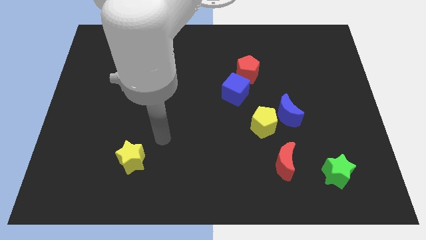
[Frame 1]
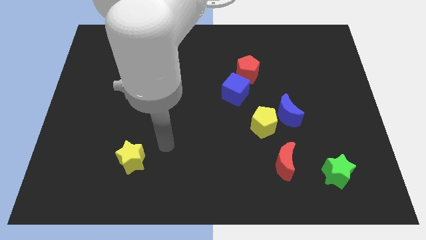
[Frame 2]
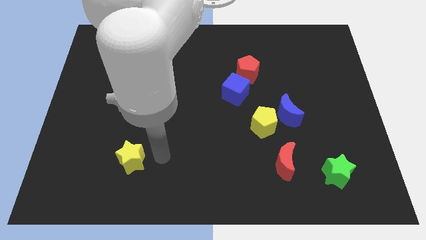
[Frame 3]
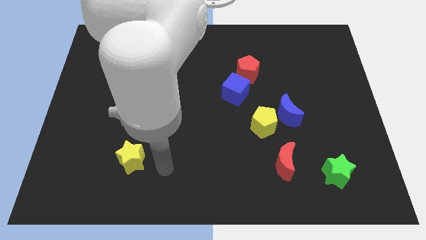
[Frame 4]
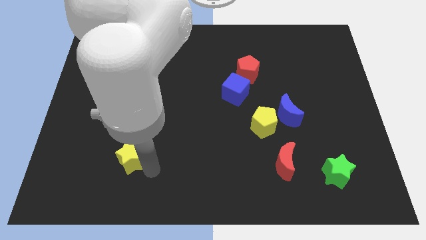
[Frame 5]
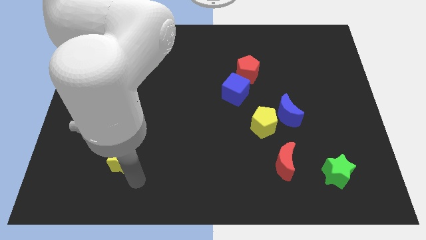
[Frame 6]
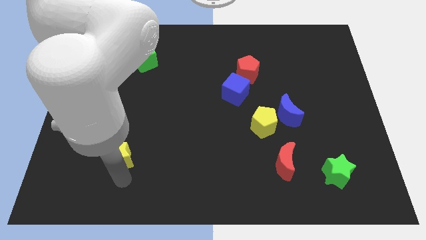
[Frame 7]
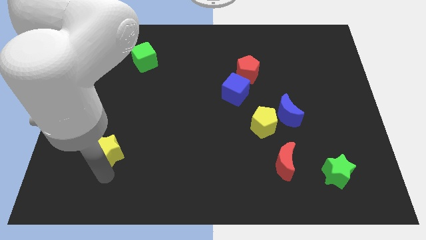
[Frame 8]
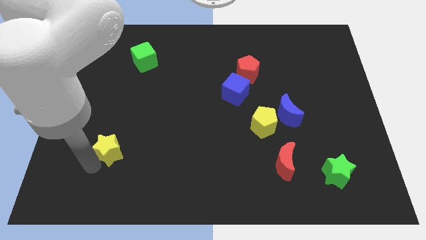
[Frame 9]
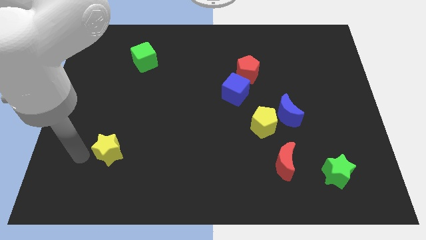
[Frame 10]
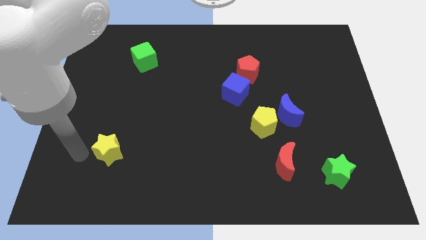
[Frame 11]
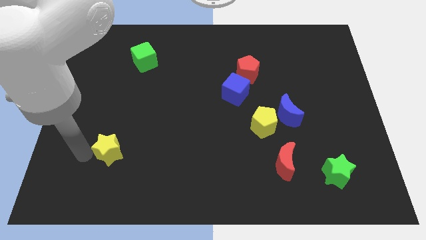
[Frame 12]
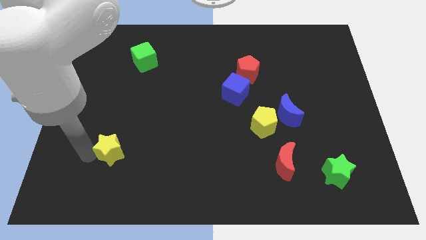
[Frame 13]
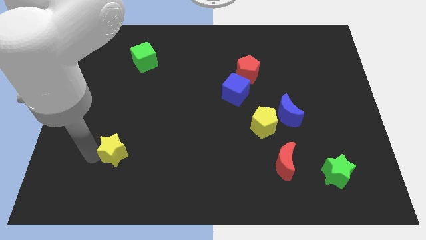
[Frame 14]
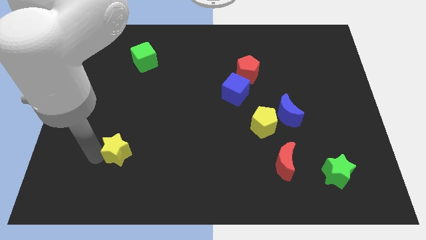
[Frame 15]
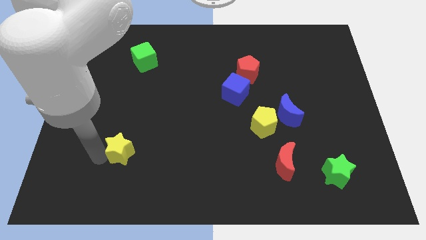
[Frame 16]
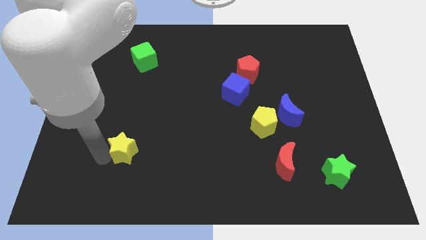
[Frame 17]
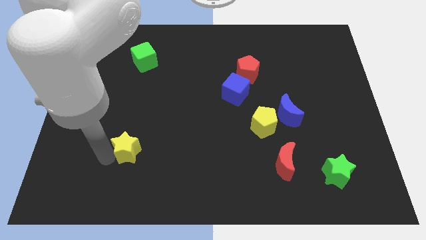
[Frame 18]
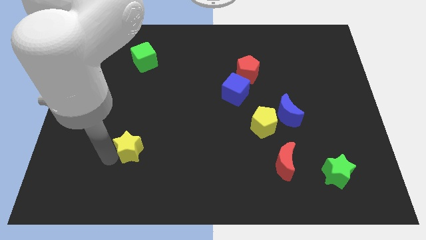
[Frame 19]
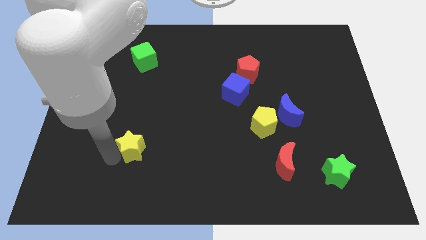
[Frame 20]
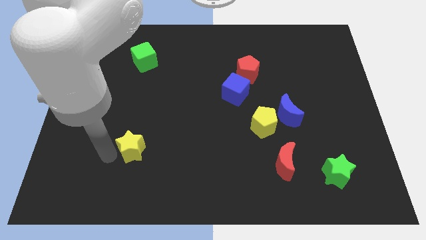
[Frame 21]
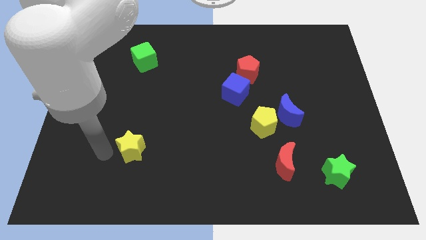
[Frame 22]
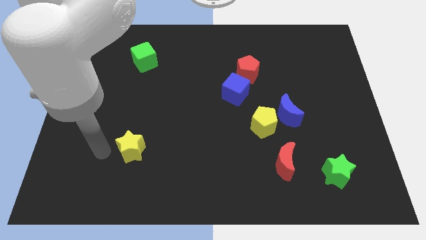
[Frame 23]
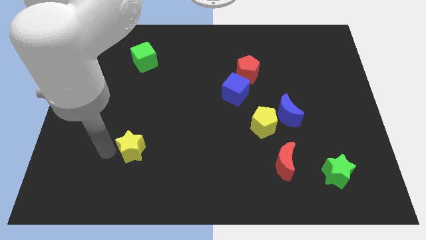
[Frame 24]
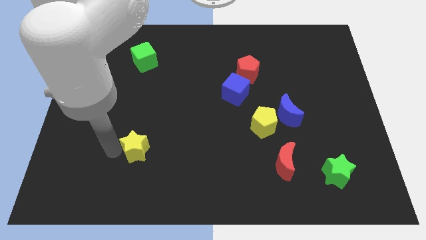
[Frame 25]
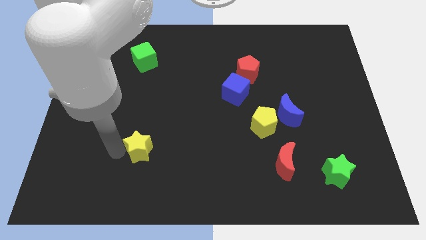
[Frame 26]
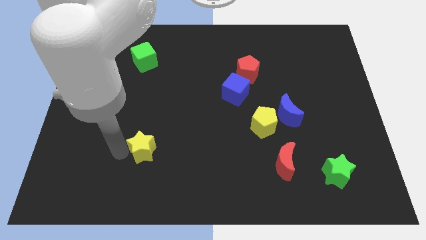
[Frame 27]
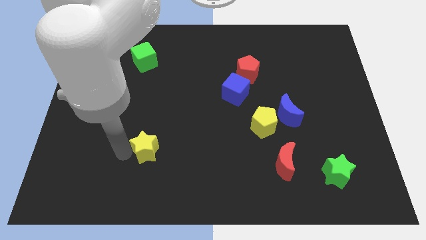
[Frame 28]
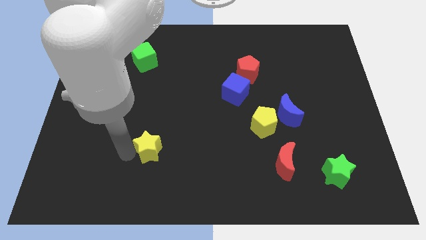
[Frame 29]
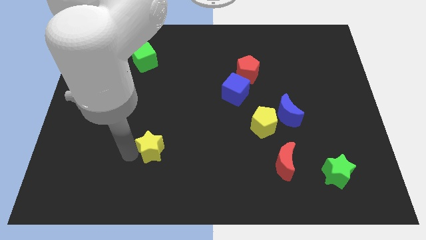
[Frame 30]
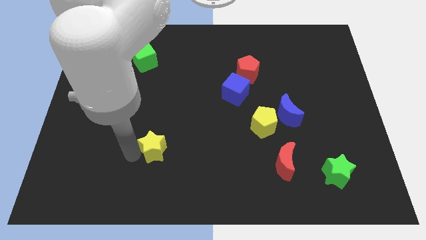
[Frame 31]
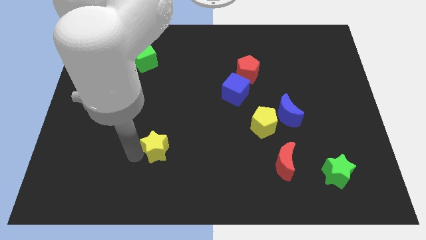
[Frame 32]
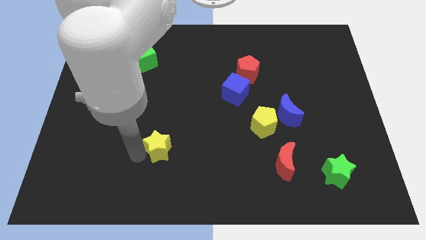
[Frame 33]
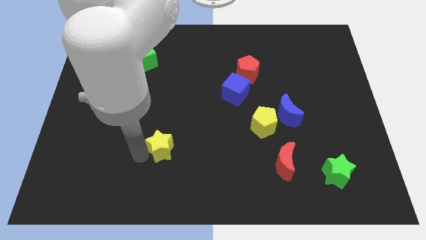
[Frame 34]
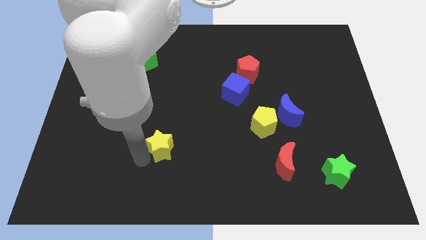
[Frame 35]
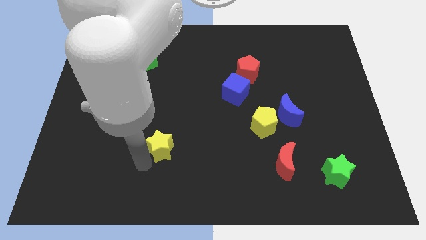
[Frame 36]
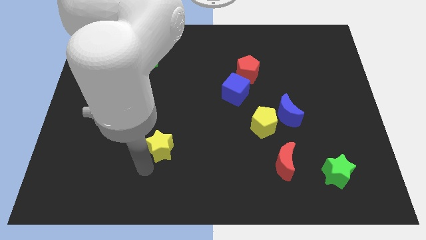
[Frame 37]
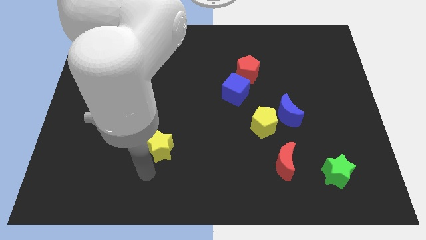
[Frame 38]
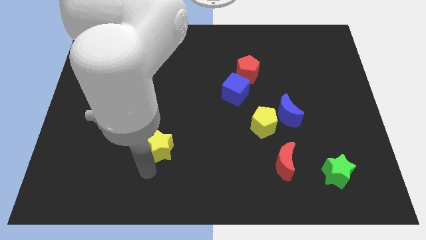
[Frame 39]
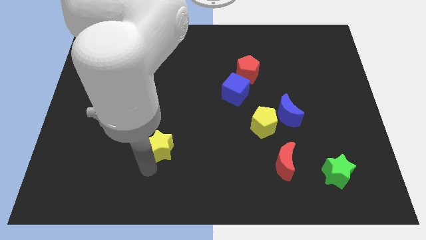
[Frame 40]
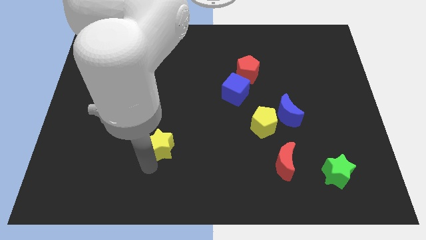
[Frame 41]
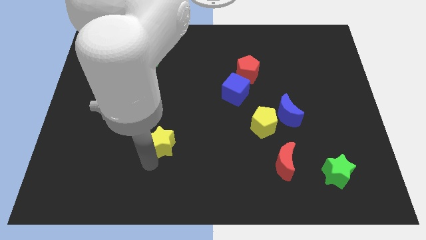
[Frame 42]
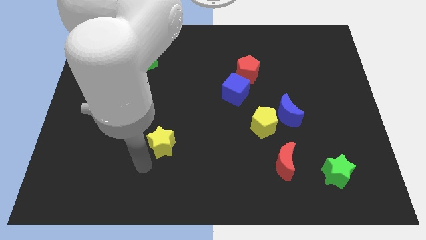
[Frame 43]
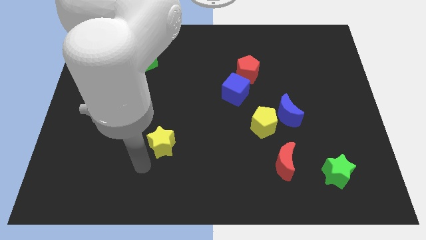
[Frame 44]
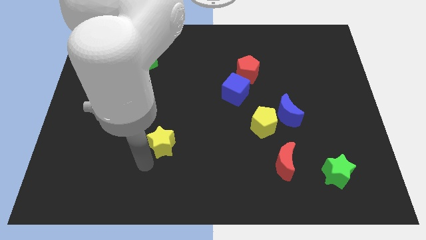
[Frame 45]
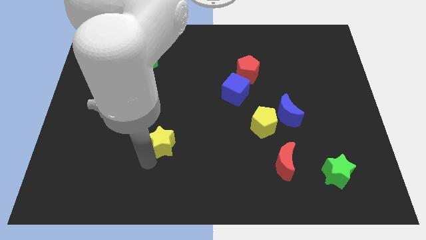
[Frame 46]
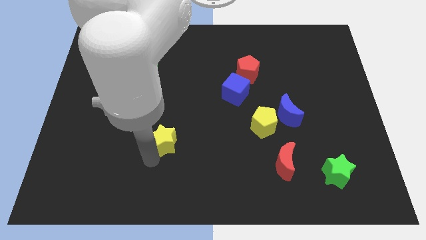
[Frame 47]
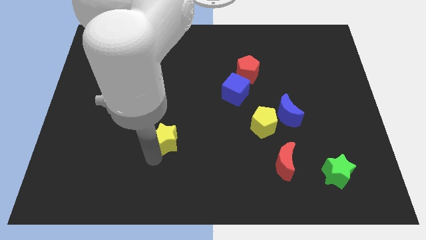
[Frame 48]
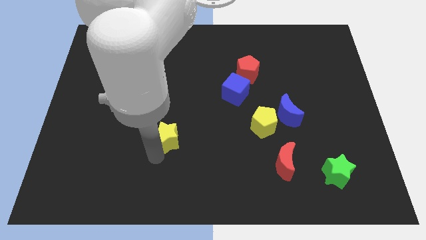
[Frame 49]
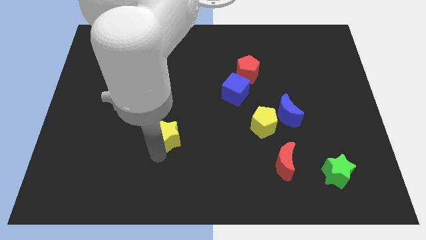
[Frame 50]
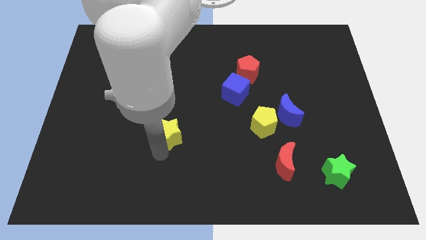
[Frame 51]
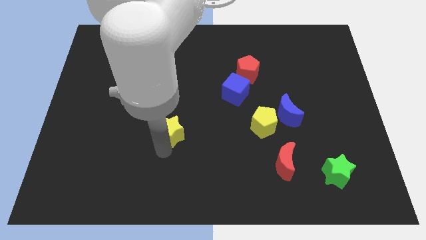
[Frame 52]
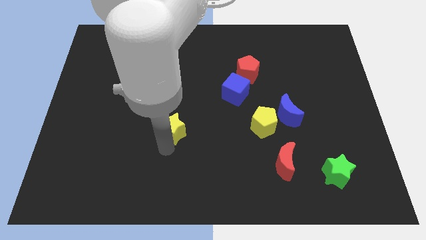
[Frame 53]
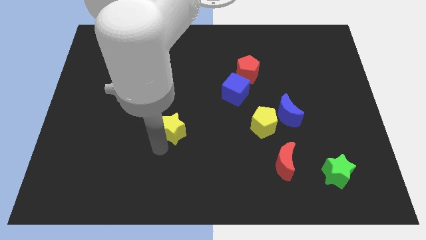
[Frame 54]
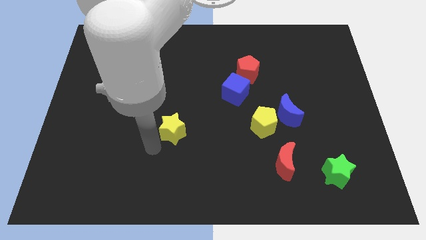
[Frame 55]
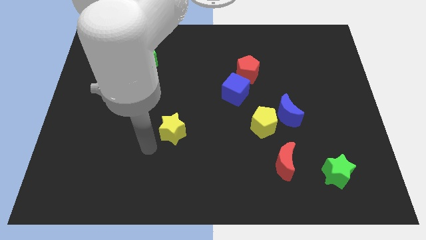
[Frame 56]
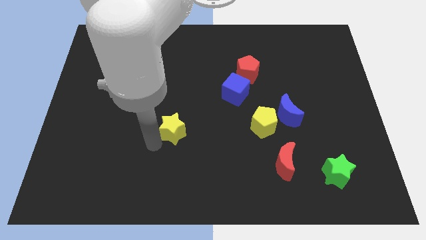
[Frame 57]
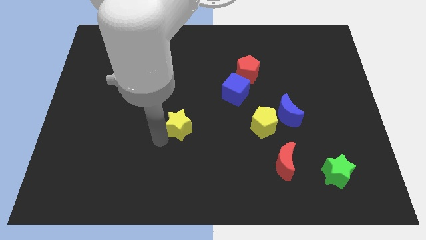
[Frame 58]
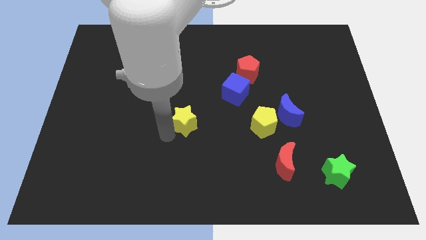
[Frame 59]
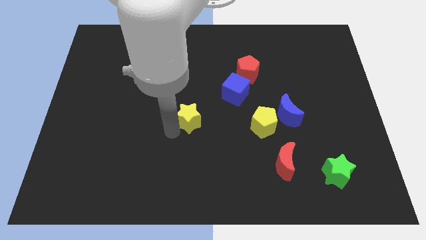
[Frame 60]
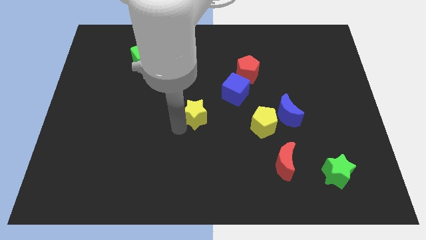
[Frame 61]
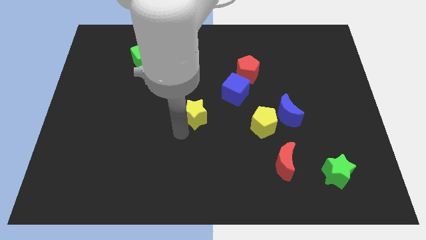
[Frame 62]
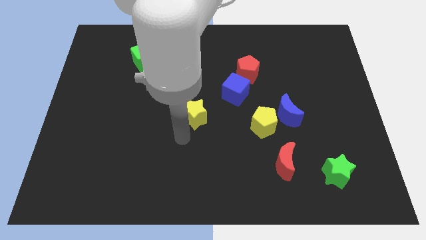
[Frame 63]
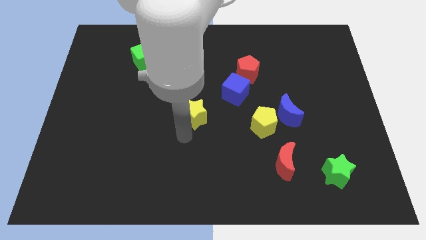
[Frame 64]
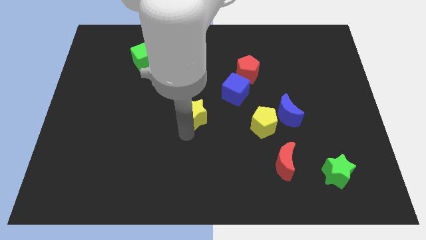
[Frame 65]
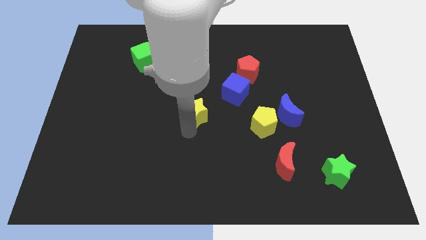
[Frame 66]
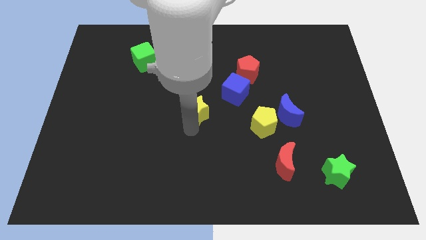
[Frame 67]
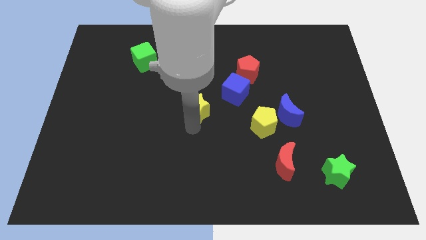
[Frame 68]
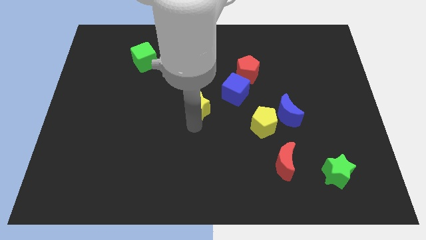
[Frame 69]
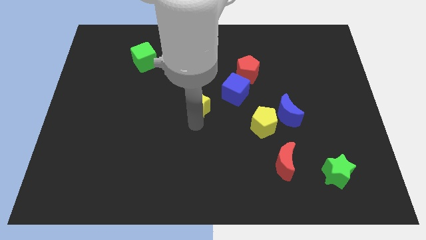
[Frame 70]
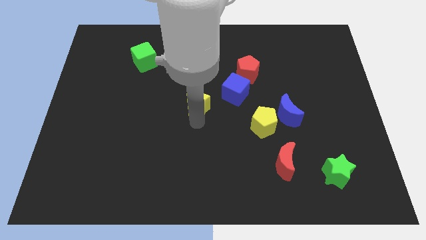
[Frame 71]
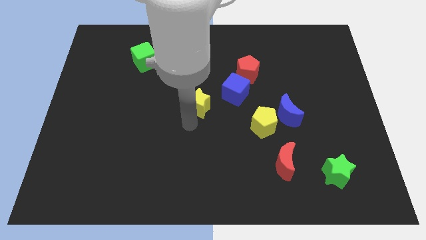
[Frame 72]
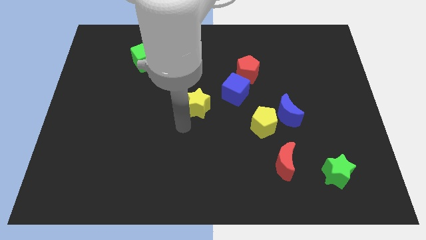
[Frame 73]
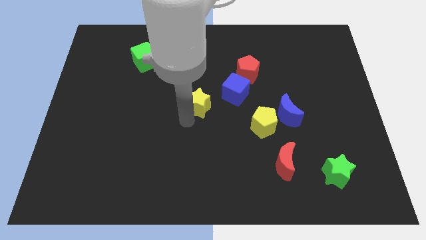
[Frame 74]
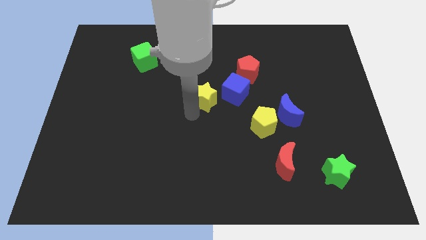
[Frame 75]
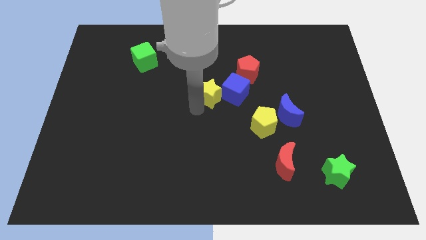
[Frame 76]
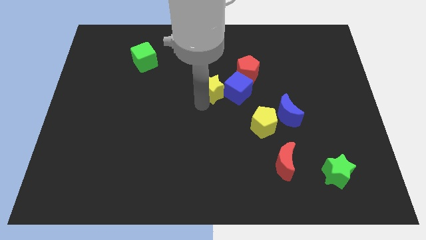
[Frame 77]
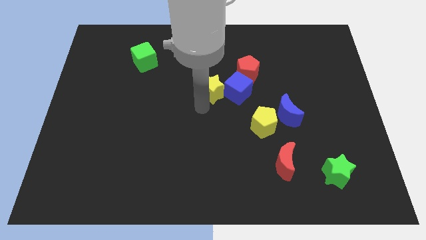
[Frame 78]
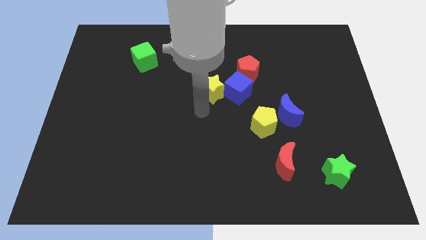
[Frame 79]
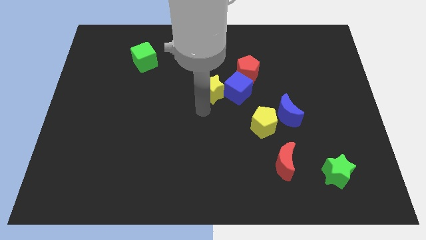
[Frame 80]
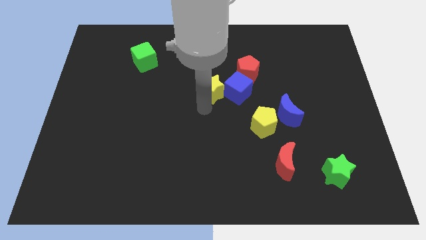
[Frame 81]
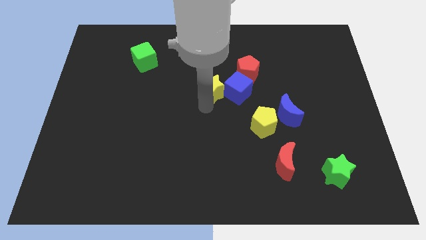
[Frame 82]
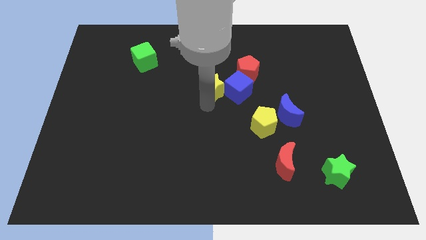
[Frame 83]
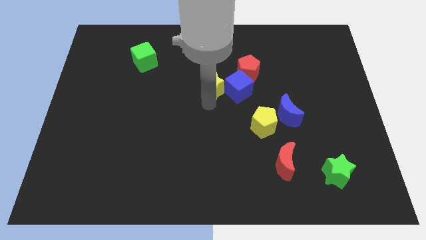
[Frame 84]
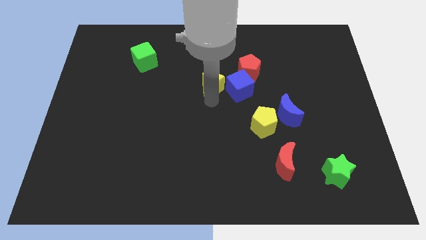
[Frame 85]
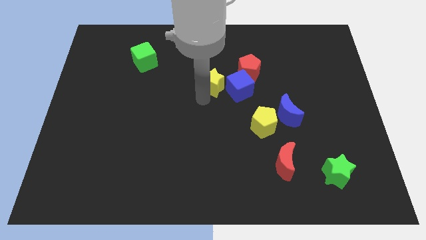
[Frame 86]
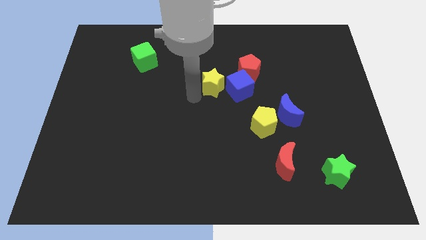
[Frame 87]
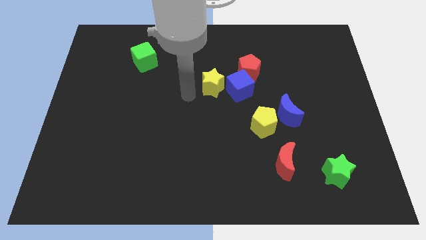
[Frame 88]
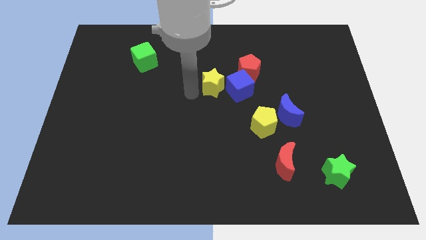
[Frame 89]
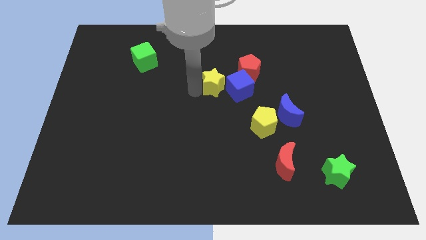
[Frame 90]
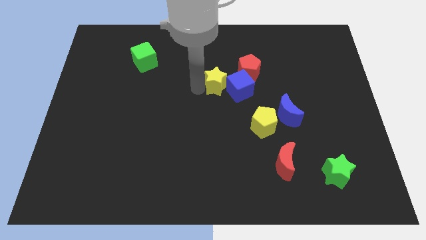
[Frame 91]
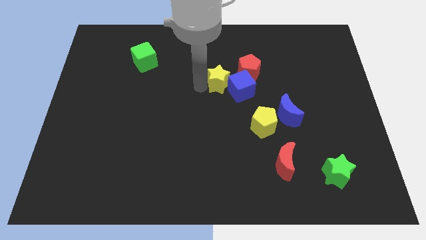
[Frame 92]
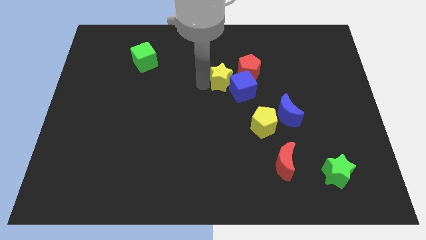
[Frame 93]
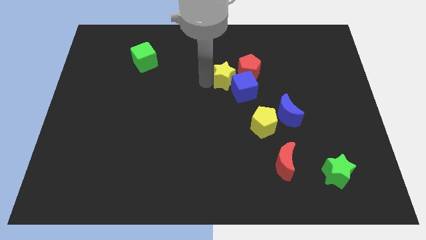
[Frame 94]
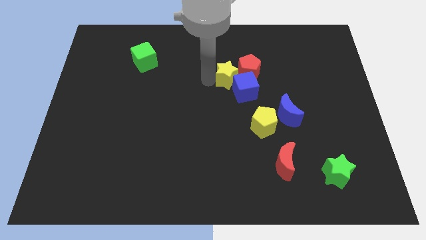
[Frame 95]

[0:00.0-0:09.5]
push the yellow star towards the red pentagon
